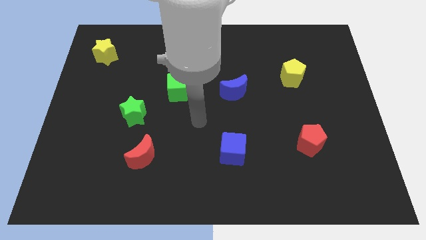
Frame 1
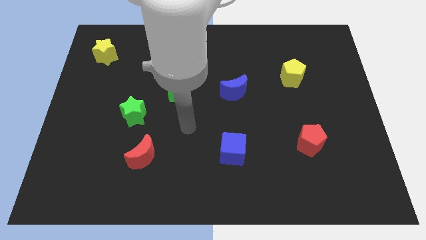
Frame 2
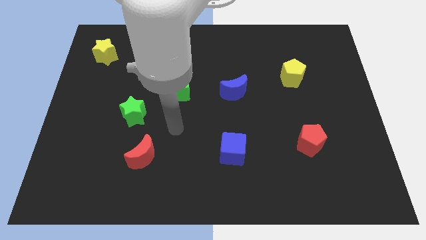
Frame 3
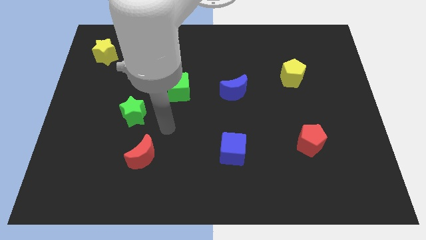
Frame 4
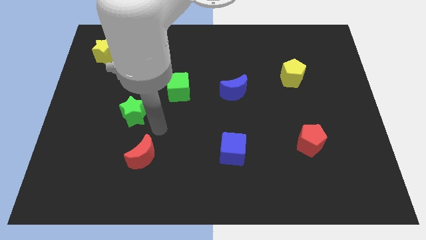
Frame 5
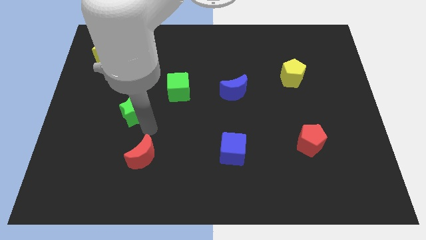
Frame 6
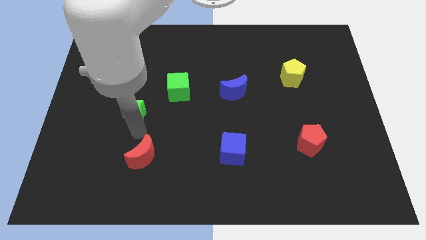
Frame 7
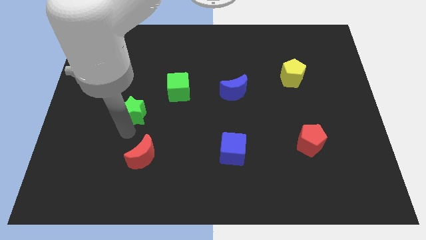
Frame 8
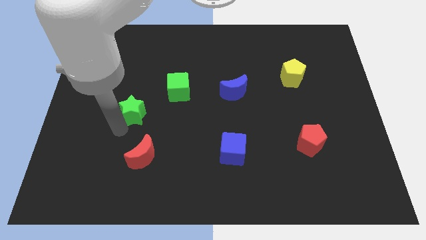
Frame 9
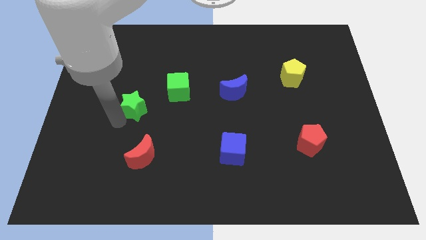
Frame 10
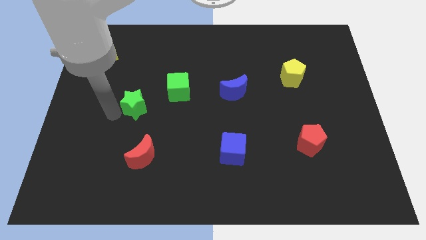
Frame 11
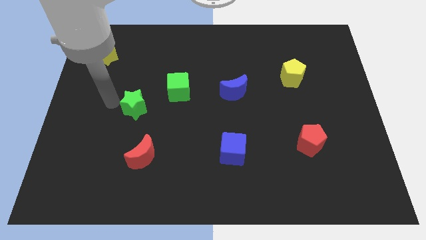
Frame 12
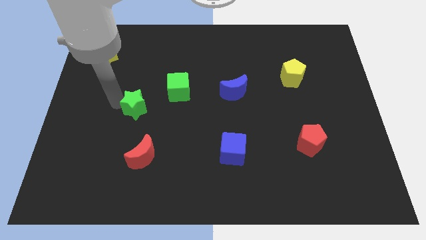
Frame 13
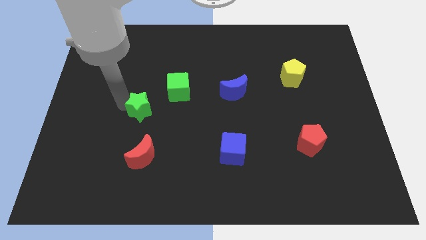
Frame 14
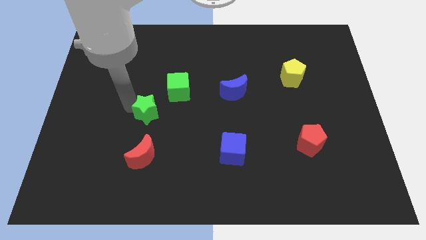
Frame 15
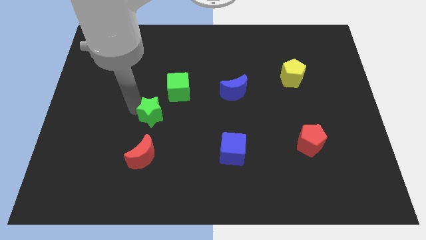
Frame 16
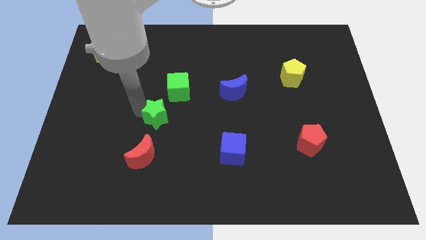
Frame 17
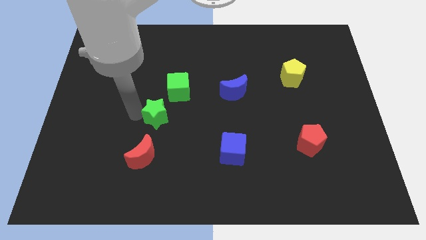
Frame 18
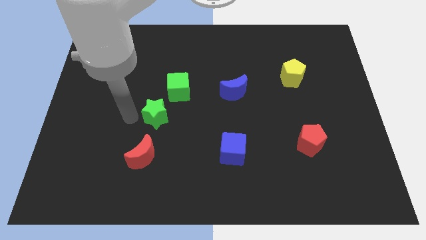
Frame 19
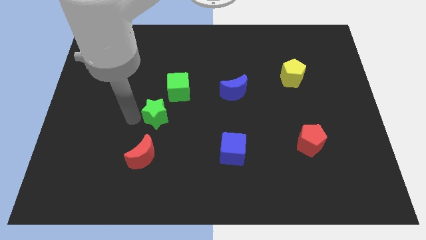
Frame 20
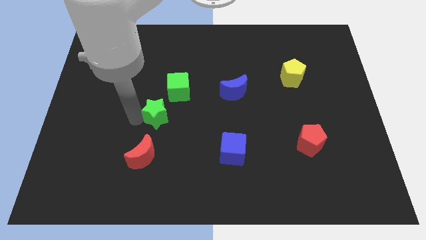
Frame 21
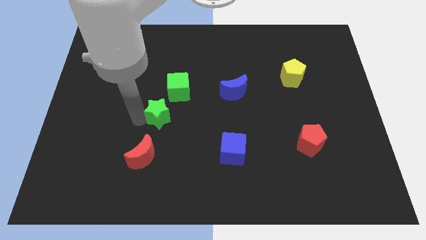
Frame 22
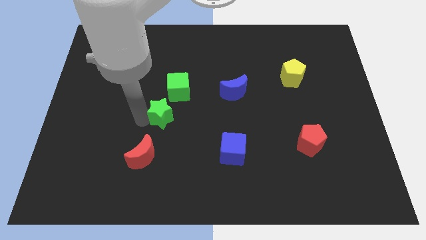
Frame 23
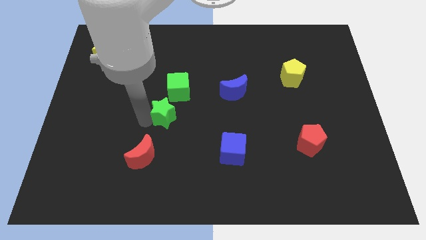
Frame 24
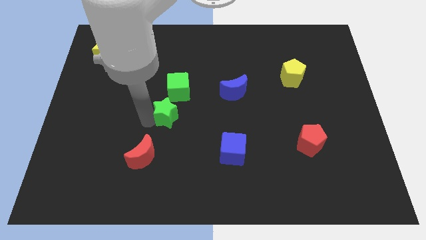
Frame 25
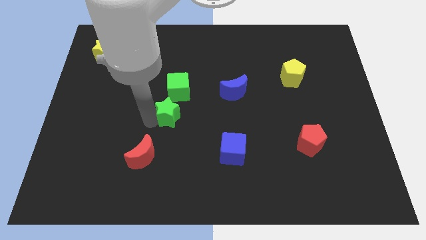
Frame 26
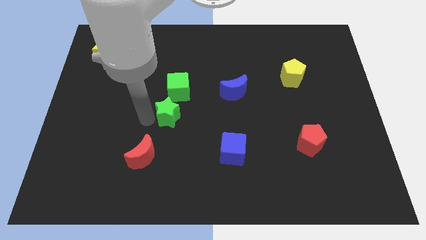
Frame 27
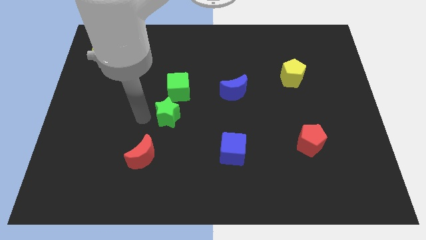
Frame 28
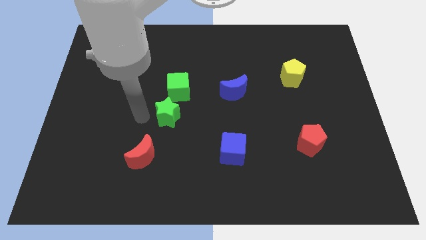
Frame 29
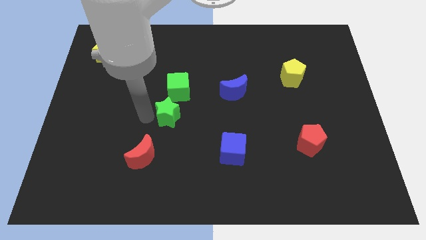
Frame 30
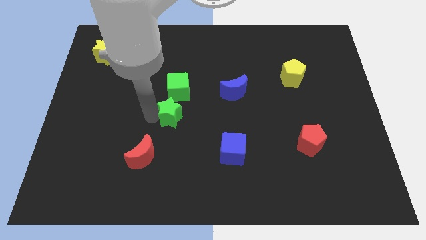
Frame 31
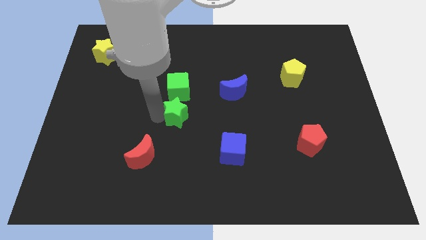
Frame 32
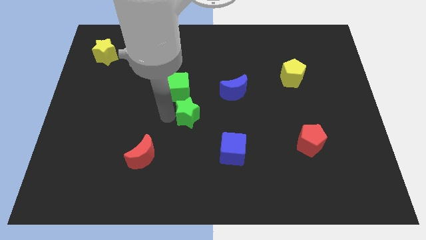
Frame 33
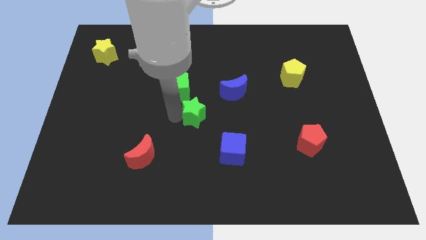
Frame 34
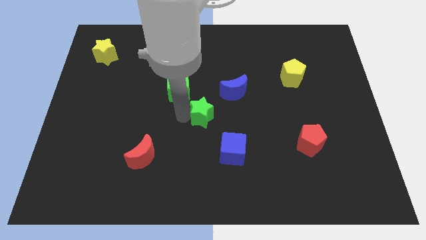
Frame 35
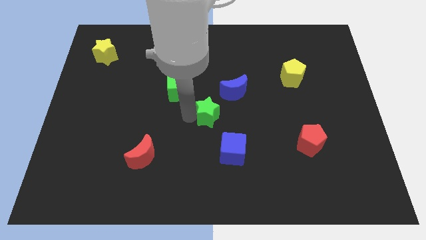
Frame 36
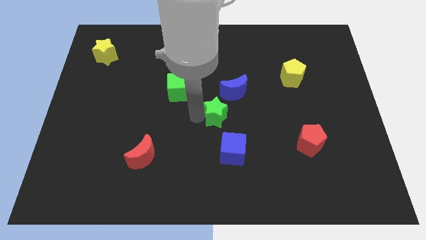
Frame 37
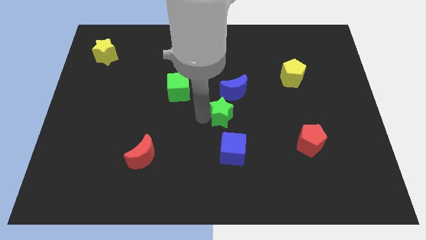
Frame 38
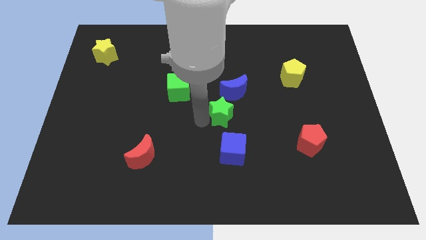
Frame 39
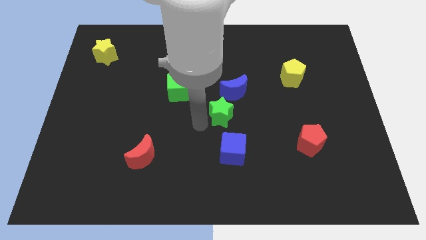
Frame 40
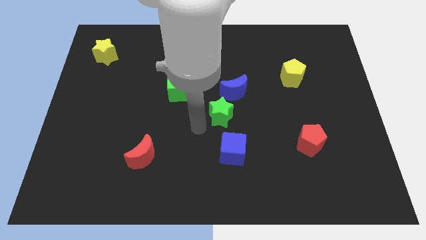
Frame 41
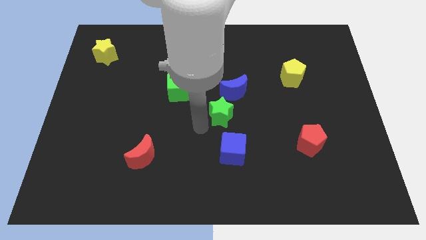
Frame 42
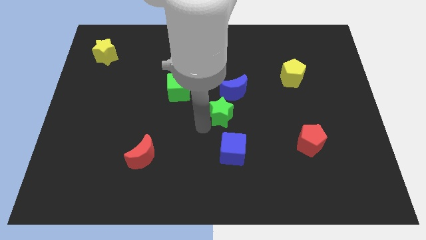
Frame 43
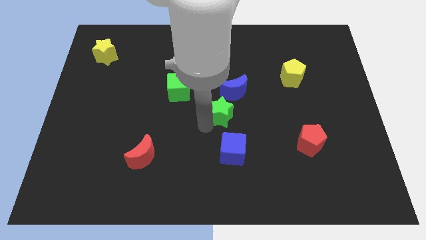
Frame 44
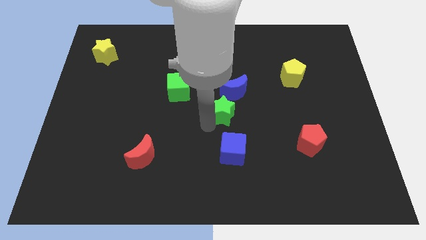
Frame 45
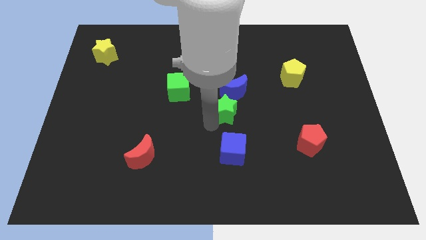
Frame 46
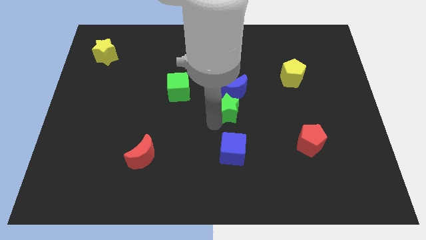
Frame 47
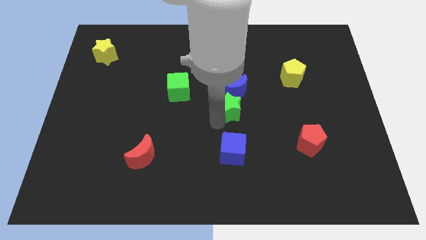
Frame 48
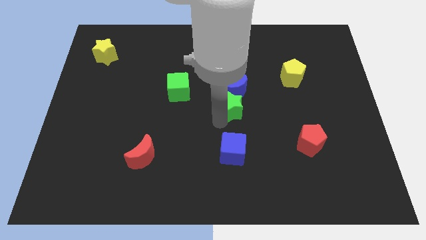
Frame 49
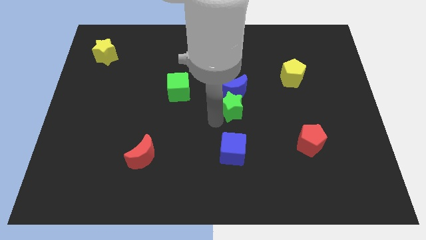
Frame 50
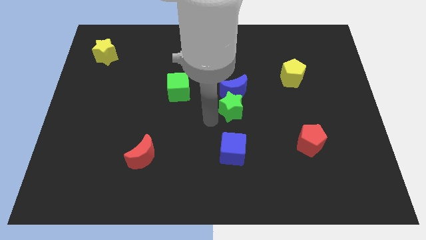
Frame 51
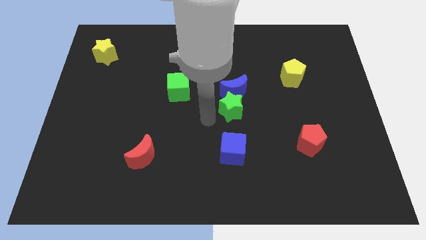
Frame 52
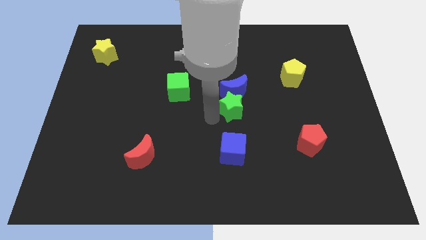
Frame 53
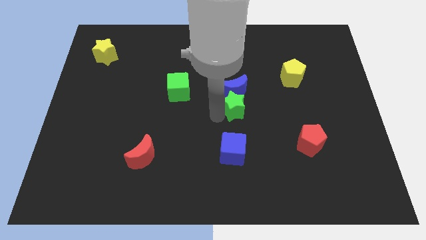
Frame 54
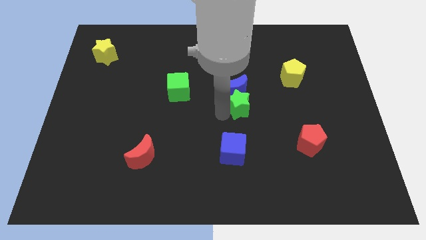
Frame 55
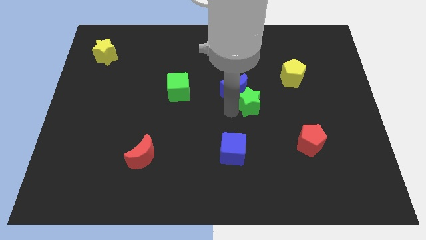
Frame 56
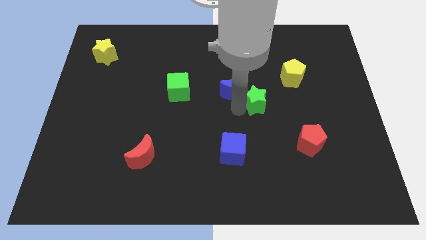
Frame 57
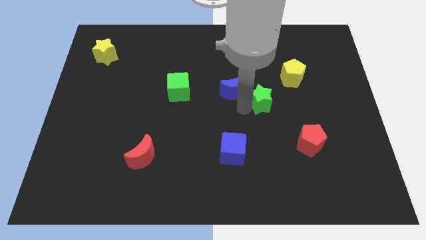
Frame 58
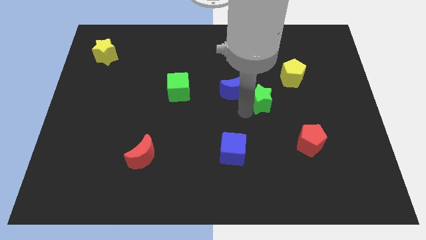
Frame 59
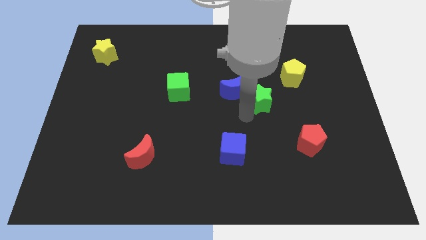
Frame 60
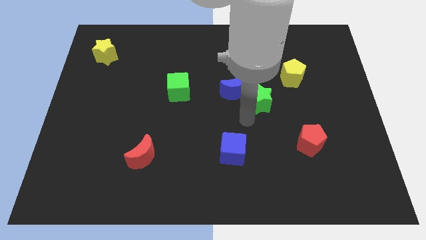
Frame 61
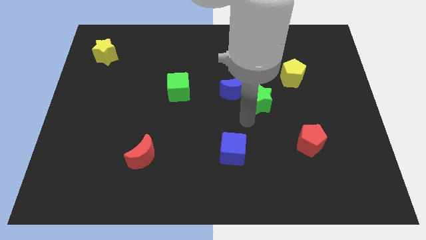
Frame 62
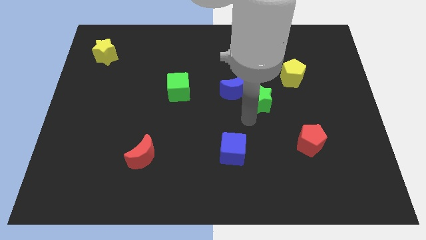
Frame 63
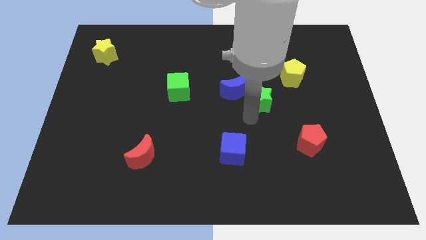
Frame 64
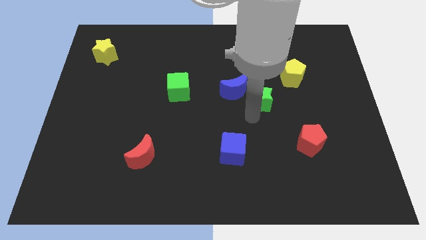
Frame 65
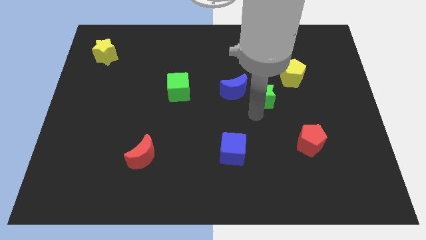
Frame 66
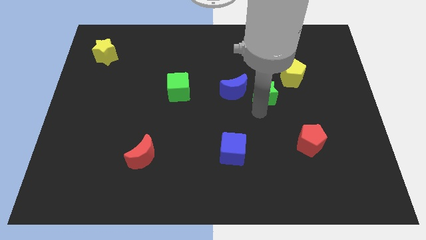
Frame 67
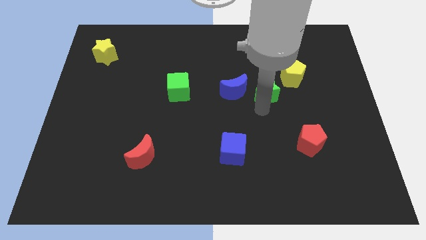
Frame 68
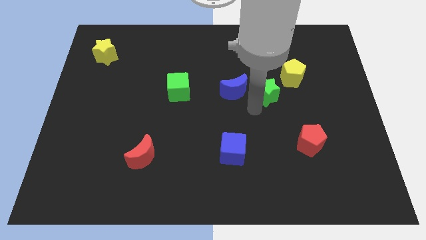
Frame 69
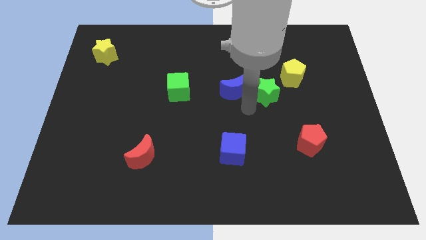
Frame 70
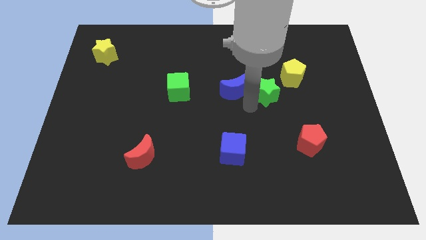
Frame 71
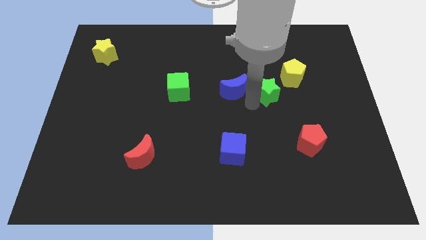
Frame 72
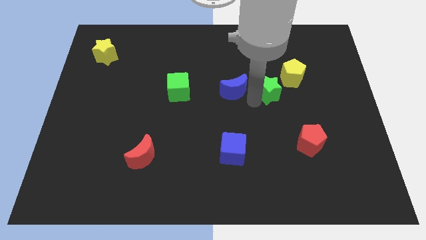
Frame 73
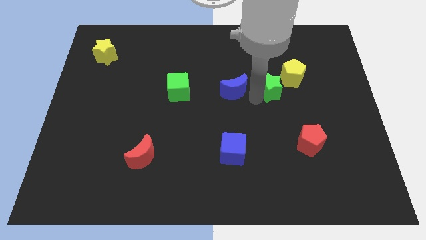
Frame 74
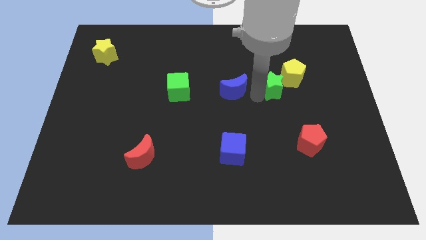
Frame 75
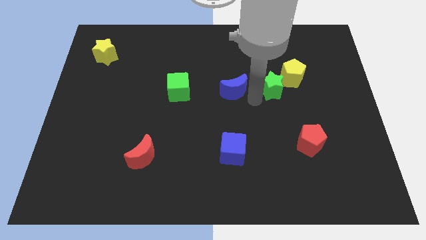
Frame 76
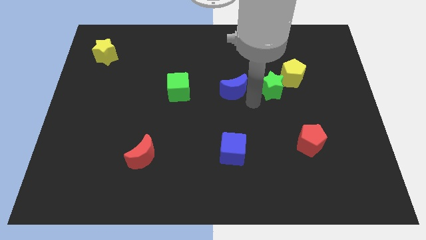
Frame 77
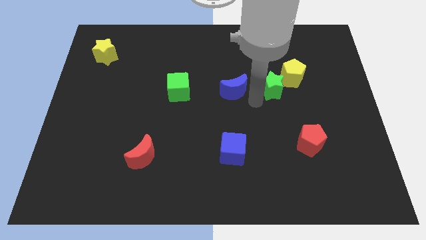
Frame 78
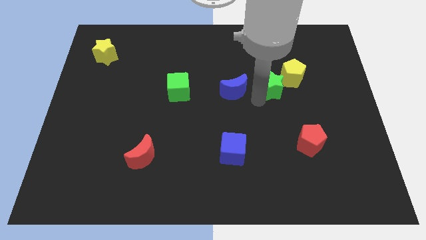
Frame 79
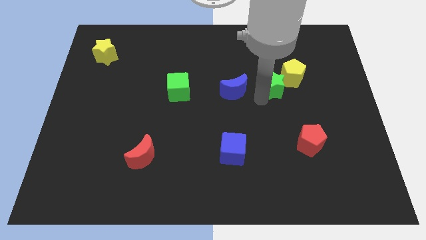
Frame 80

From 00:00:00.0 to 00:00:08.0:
push the green star next to the yellow pentagon
